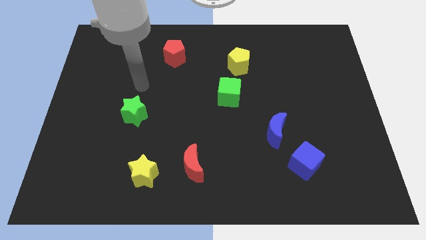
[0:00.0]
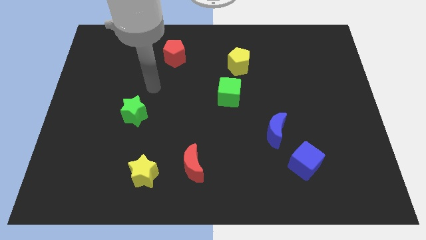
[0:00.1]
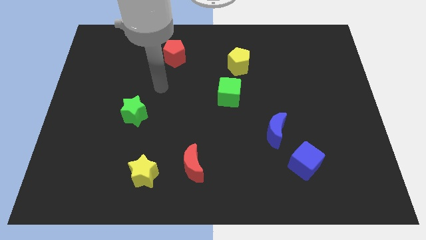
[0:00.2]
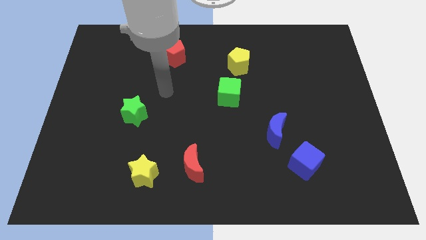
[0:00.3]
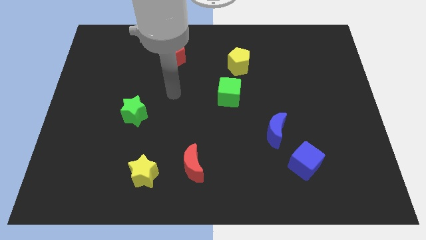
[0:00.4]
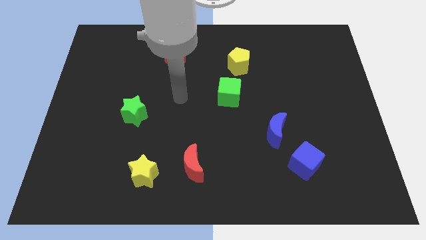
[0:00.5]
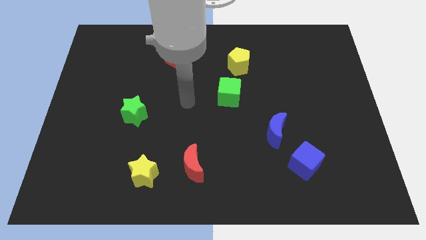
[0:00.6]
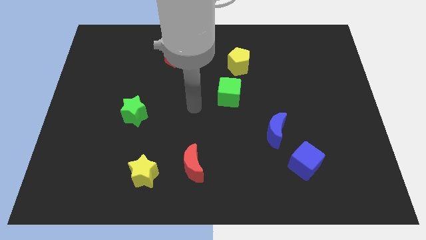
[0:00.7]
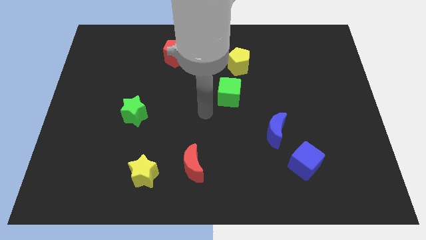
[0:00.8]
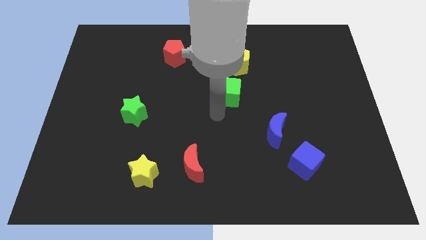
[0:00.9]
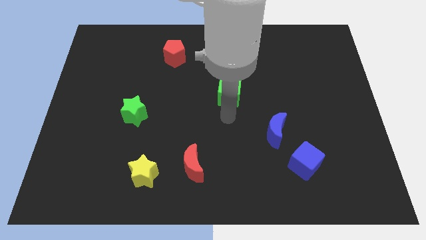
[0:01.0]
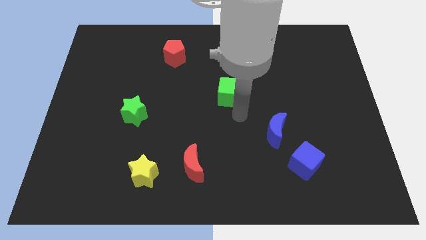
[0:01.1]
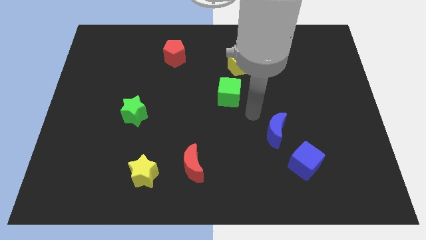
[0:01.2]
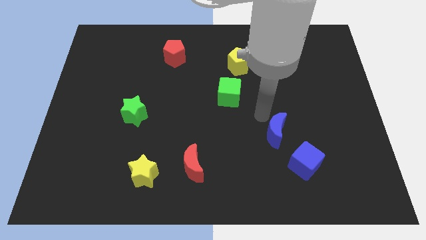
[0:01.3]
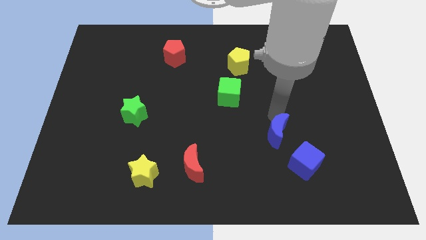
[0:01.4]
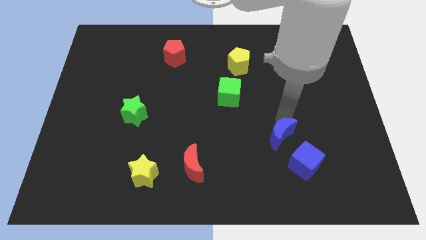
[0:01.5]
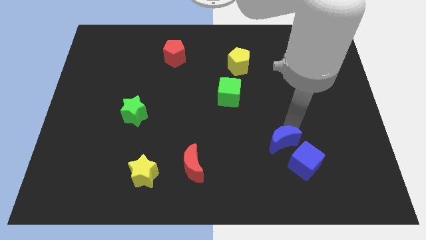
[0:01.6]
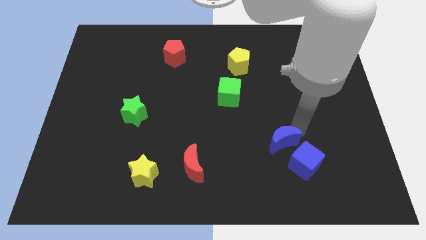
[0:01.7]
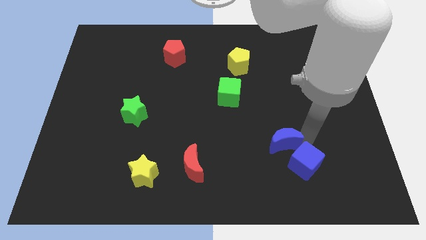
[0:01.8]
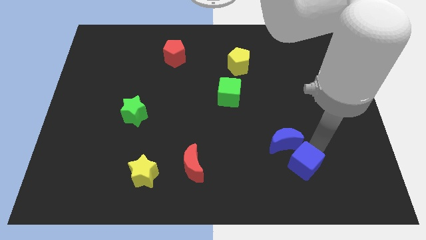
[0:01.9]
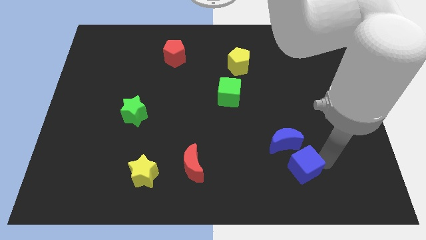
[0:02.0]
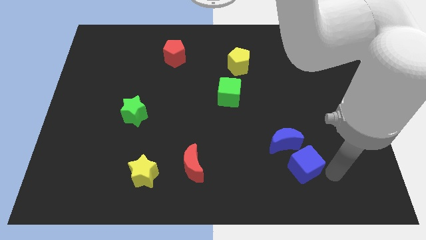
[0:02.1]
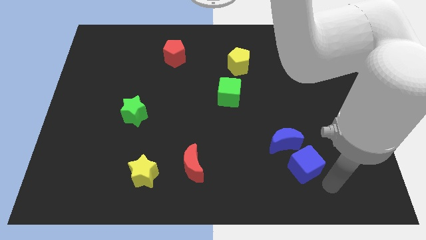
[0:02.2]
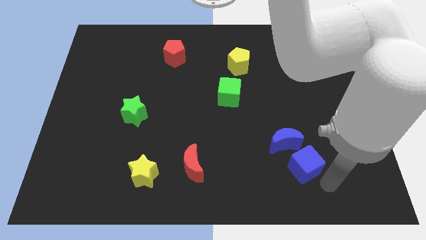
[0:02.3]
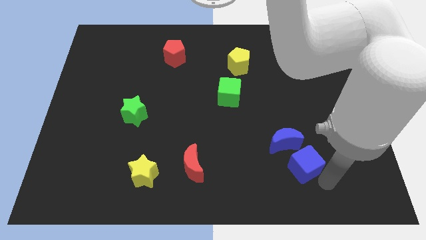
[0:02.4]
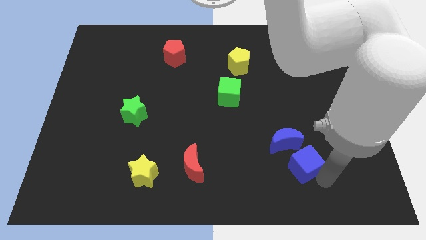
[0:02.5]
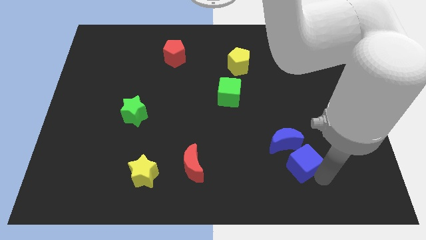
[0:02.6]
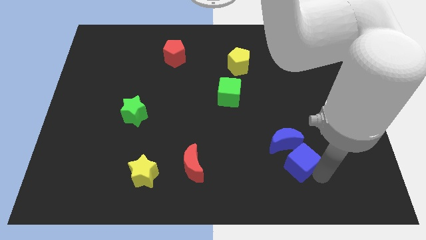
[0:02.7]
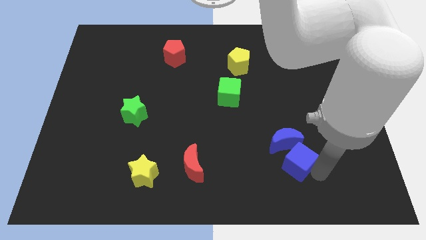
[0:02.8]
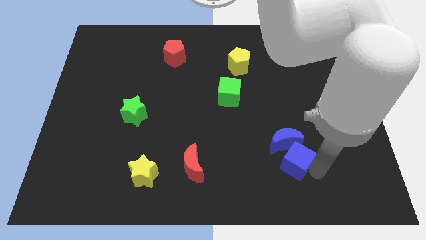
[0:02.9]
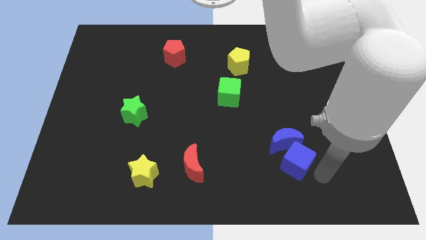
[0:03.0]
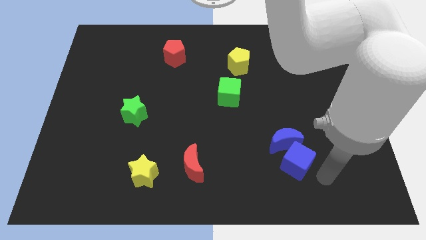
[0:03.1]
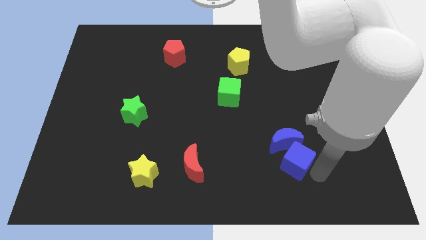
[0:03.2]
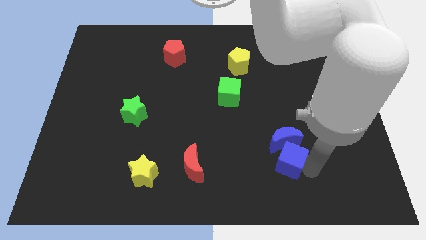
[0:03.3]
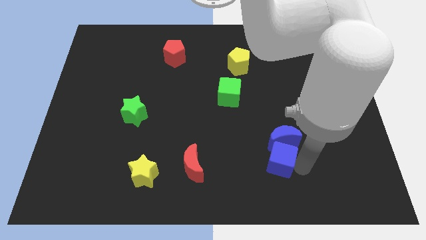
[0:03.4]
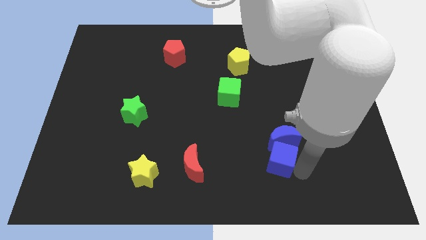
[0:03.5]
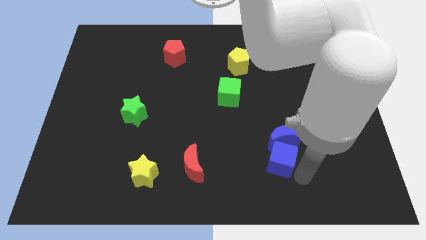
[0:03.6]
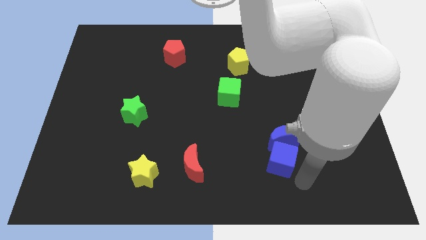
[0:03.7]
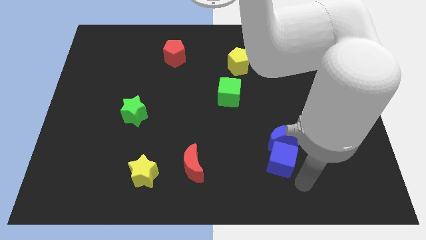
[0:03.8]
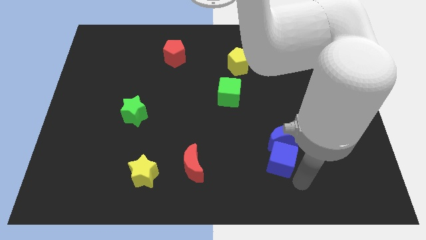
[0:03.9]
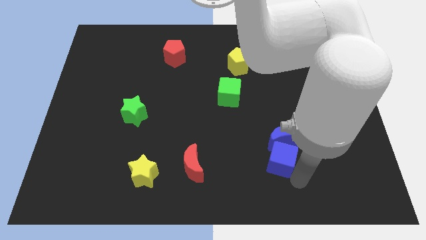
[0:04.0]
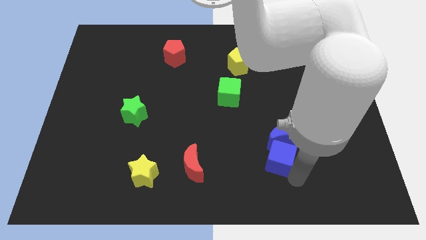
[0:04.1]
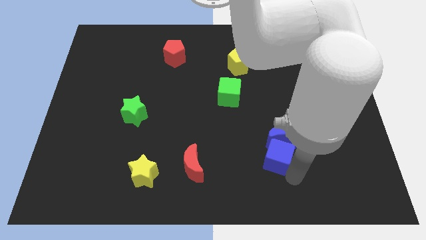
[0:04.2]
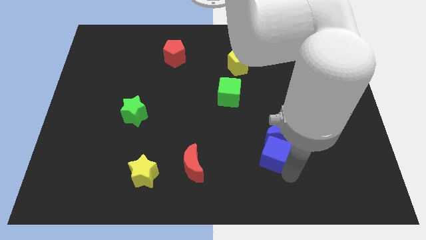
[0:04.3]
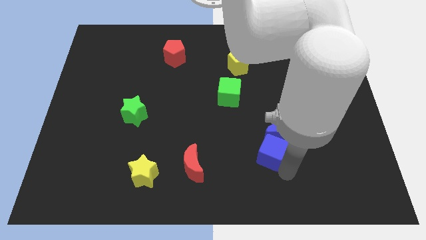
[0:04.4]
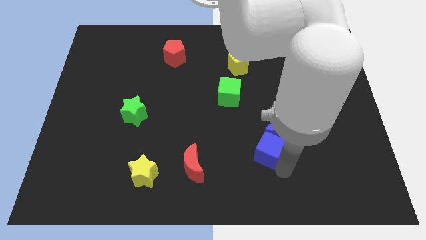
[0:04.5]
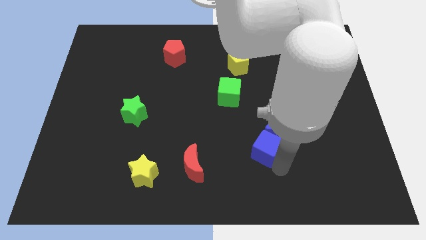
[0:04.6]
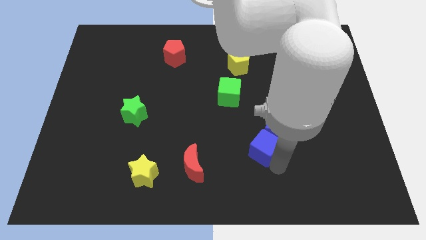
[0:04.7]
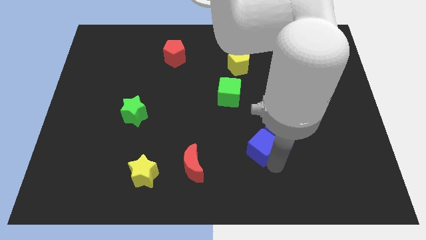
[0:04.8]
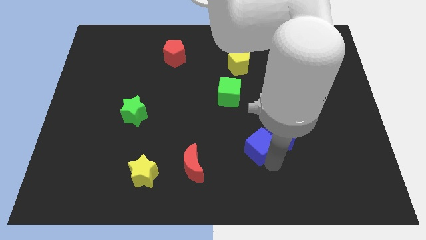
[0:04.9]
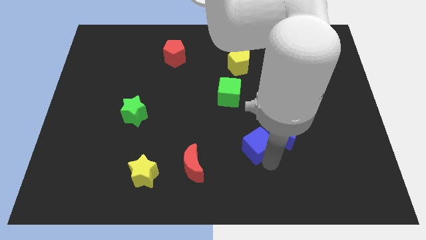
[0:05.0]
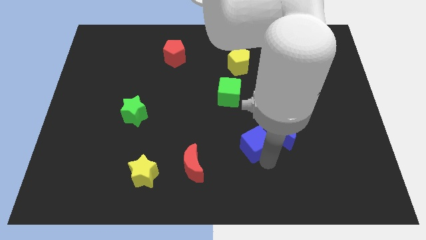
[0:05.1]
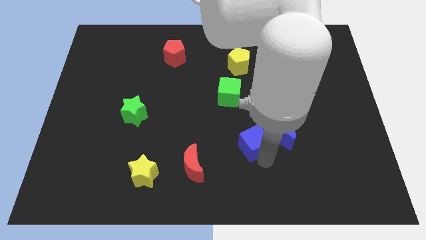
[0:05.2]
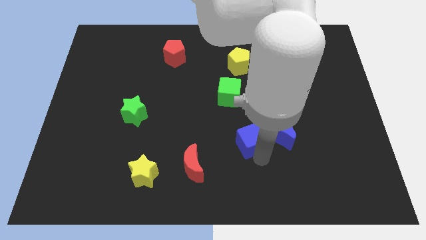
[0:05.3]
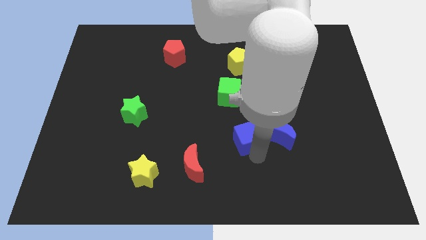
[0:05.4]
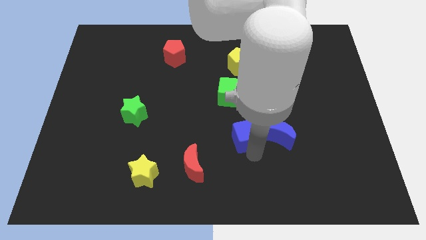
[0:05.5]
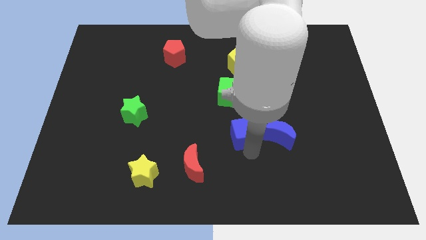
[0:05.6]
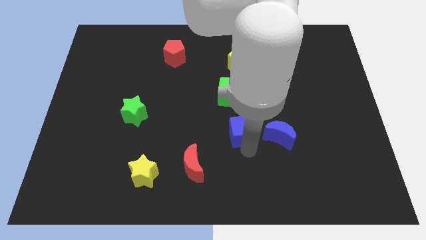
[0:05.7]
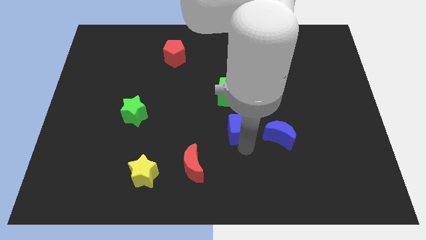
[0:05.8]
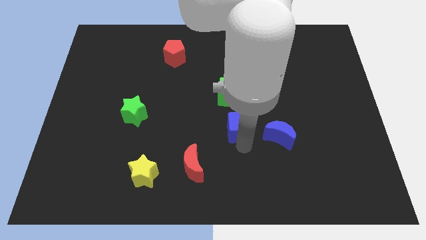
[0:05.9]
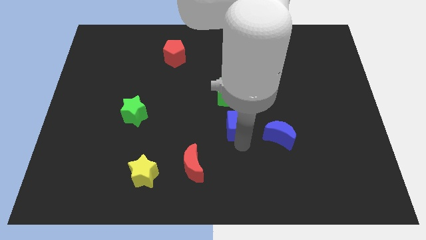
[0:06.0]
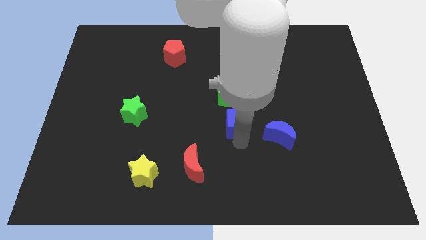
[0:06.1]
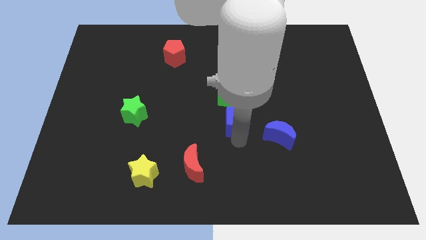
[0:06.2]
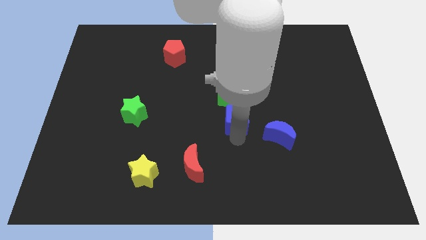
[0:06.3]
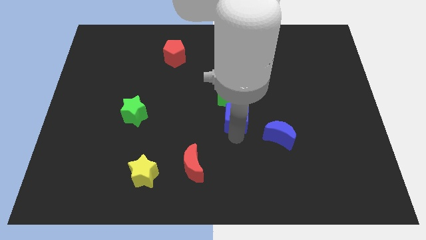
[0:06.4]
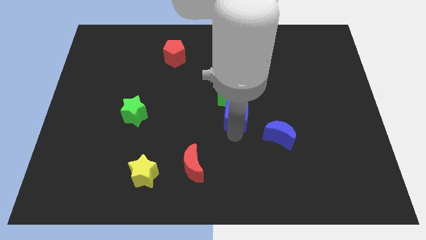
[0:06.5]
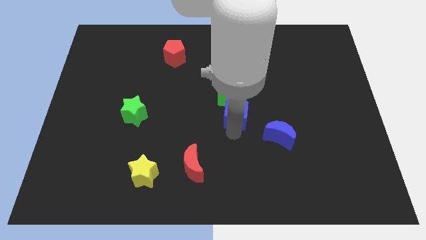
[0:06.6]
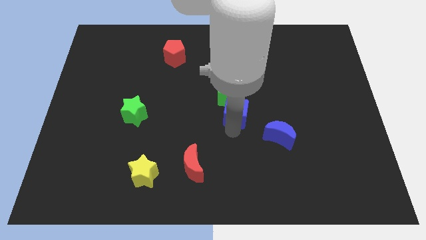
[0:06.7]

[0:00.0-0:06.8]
put the blue cube to the green cube
